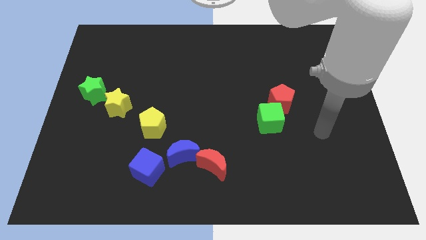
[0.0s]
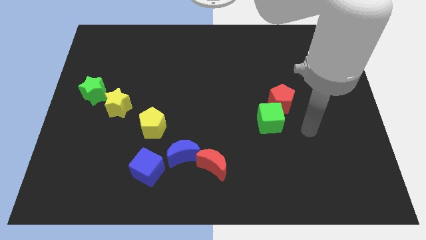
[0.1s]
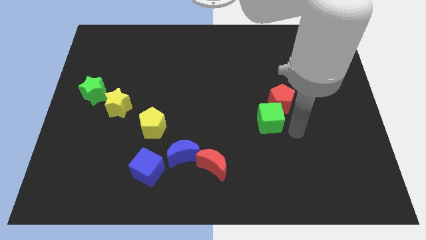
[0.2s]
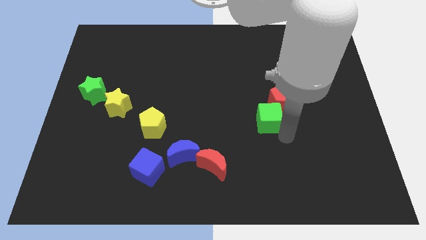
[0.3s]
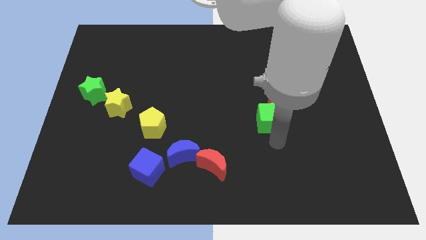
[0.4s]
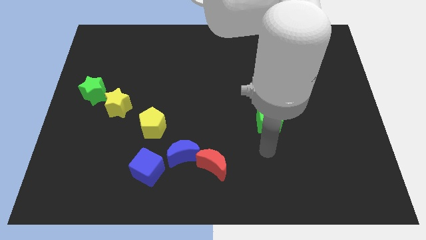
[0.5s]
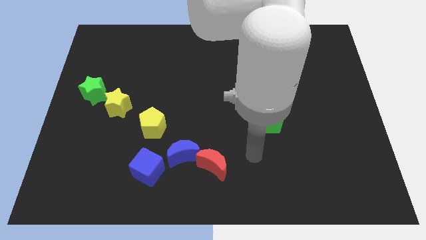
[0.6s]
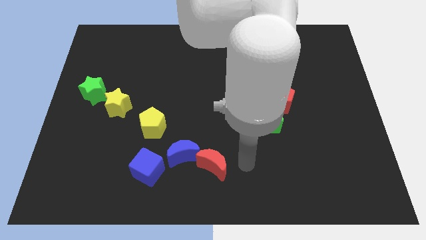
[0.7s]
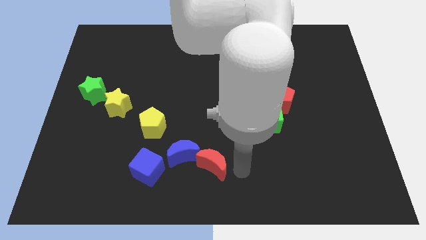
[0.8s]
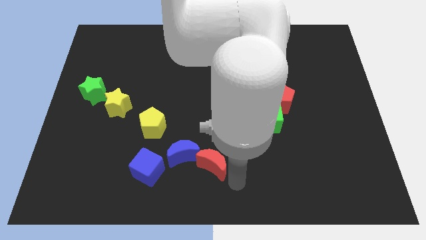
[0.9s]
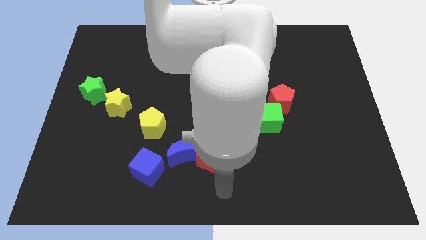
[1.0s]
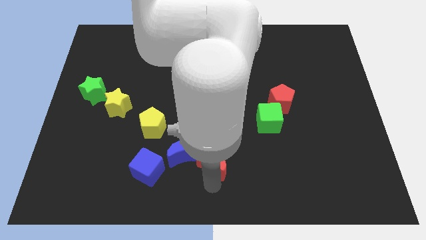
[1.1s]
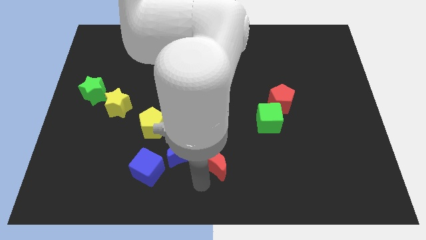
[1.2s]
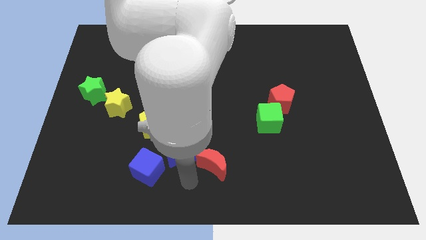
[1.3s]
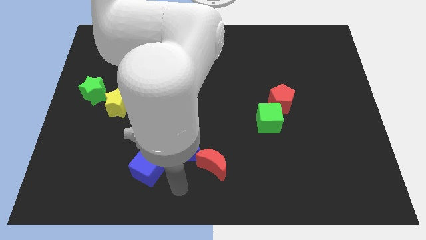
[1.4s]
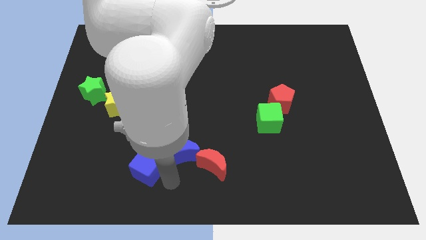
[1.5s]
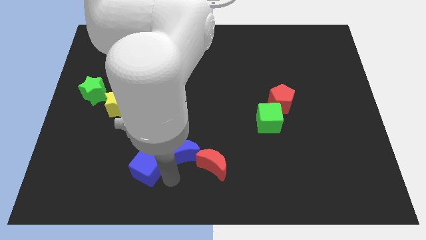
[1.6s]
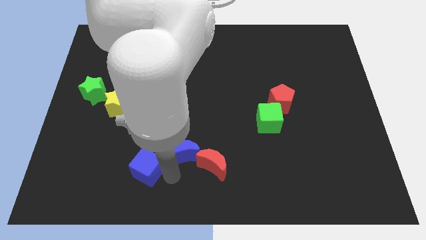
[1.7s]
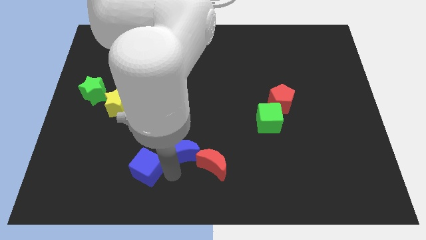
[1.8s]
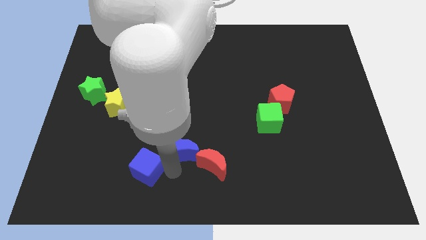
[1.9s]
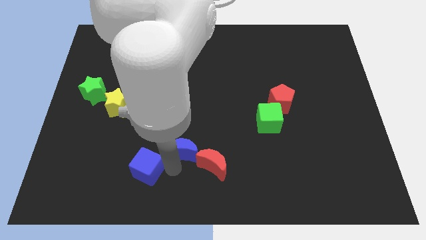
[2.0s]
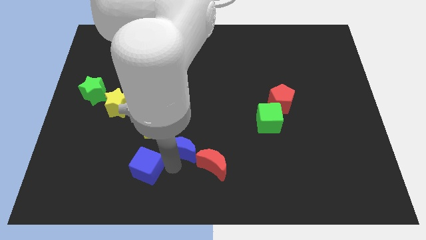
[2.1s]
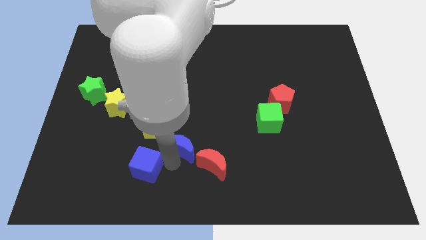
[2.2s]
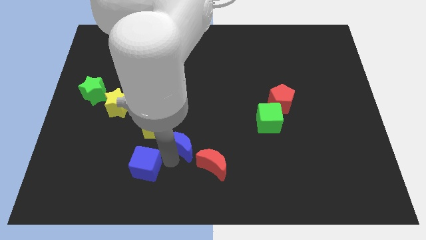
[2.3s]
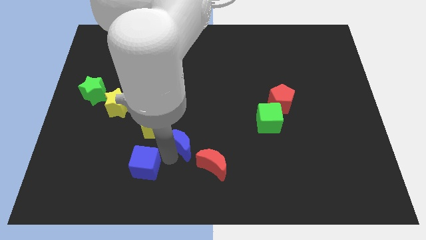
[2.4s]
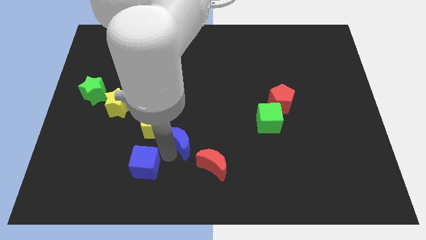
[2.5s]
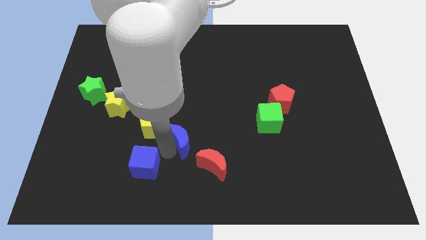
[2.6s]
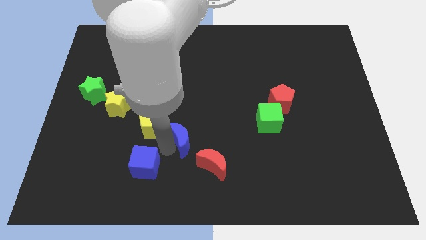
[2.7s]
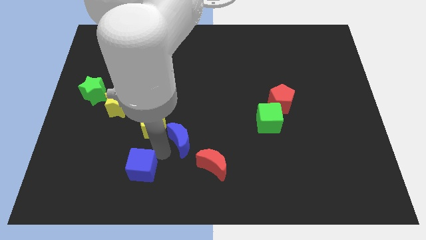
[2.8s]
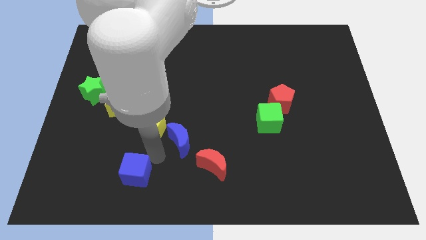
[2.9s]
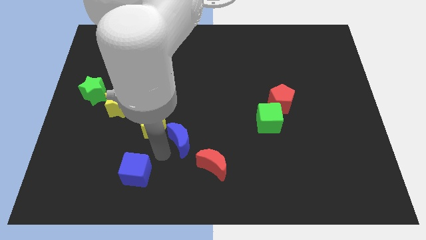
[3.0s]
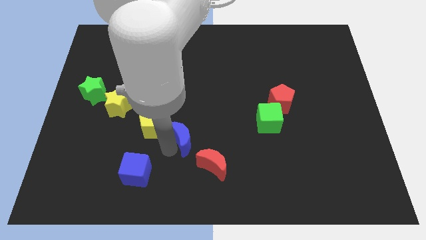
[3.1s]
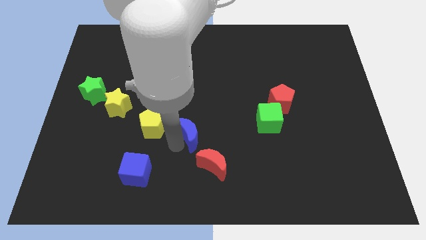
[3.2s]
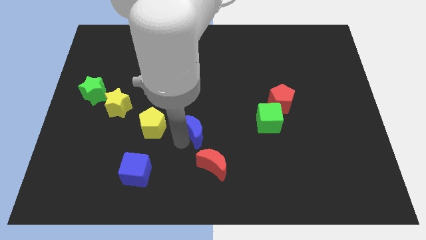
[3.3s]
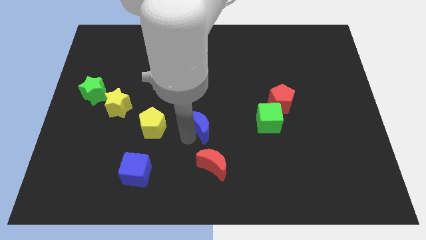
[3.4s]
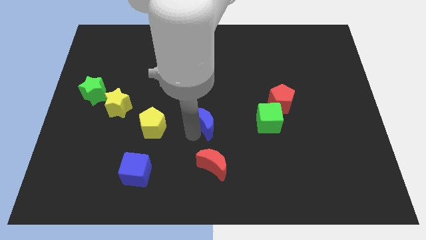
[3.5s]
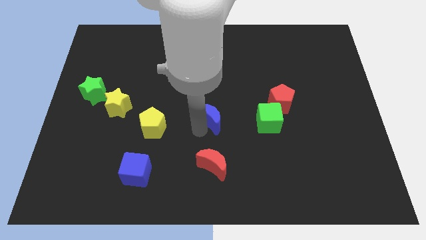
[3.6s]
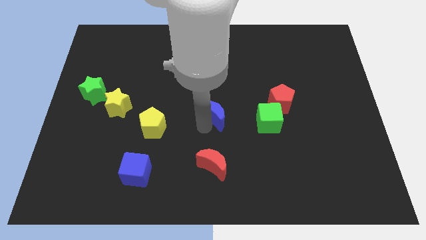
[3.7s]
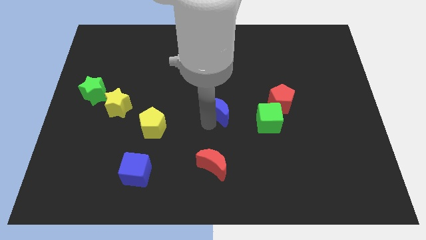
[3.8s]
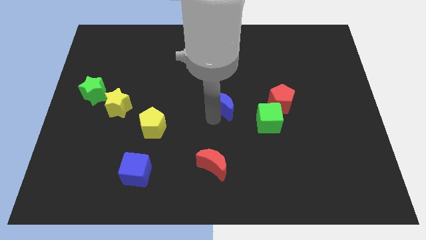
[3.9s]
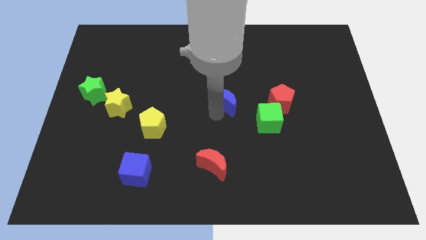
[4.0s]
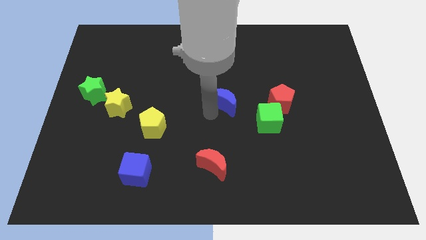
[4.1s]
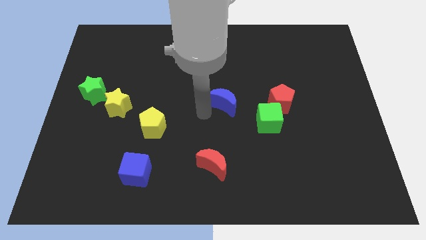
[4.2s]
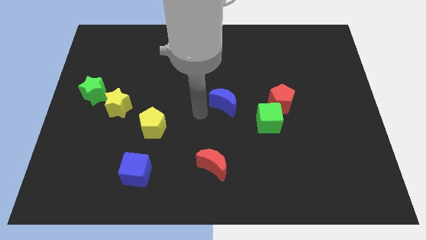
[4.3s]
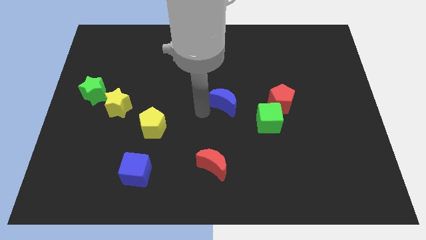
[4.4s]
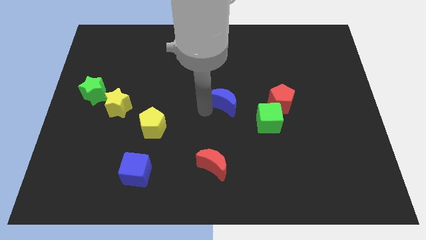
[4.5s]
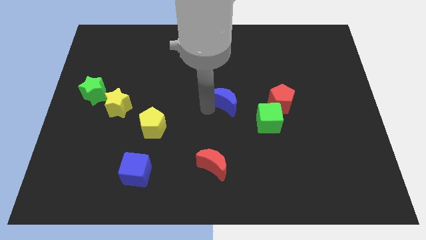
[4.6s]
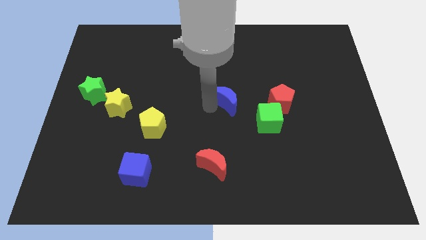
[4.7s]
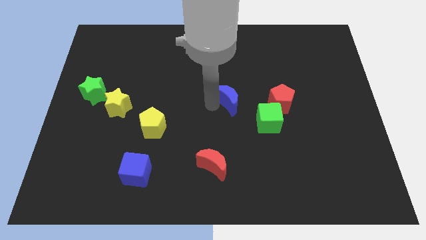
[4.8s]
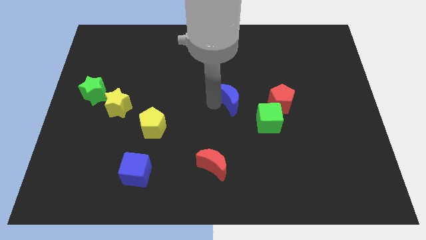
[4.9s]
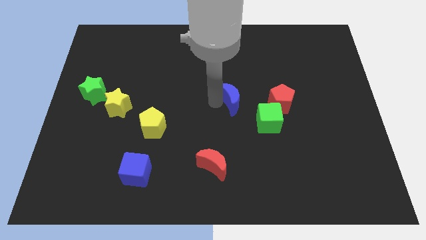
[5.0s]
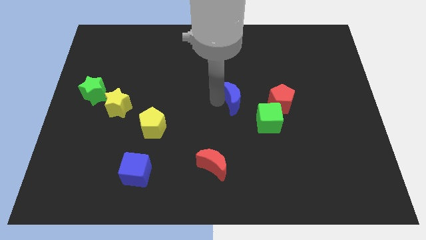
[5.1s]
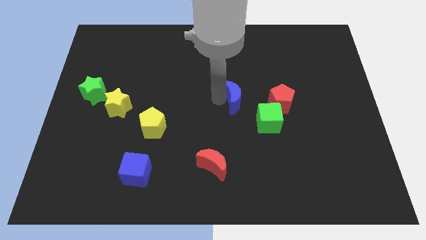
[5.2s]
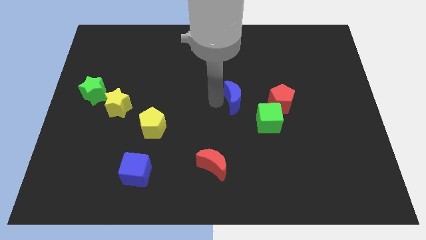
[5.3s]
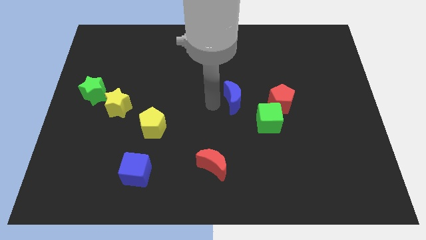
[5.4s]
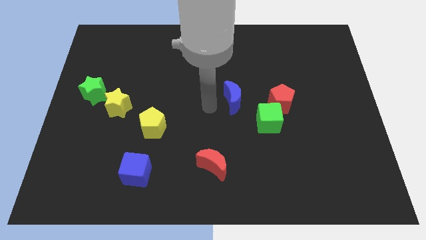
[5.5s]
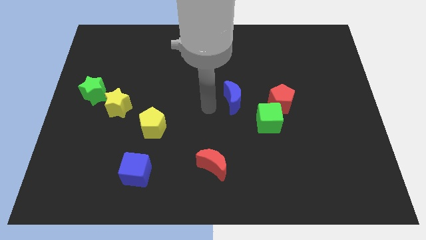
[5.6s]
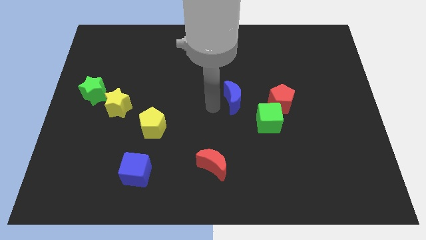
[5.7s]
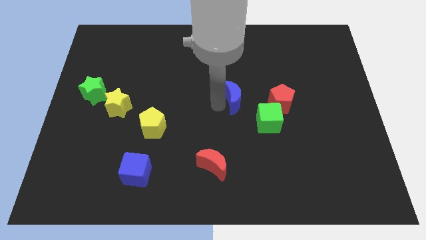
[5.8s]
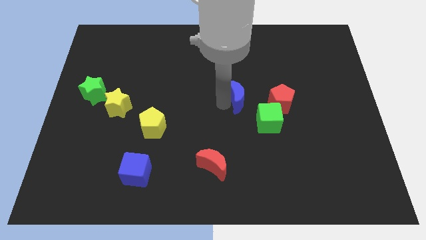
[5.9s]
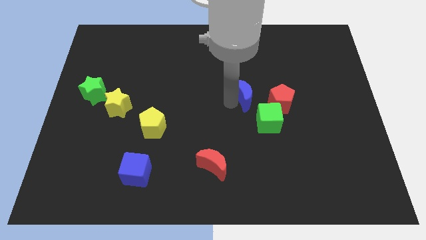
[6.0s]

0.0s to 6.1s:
move the blue moon diagonally up and to the left of the red pentagon
